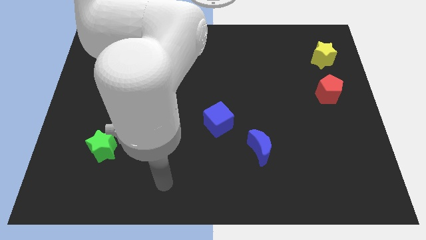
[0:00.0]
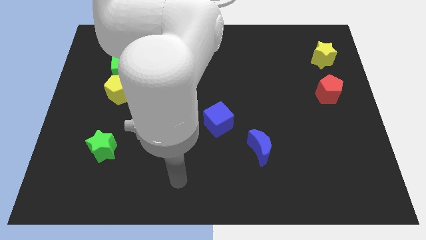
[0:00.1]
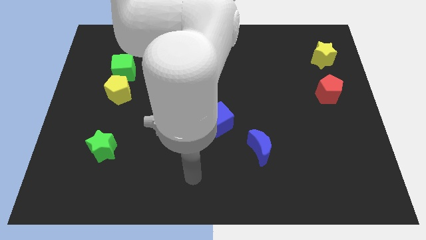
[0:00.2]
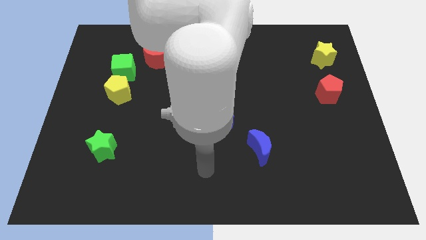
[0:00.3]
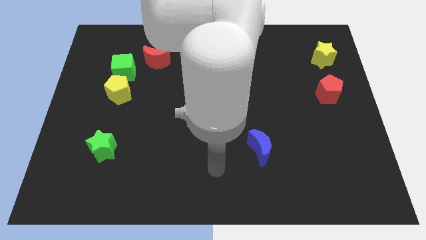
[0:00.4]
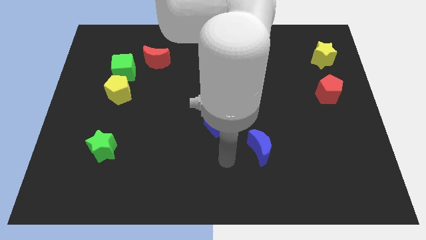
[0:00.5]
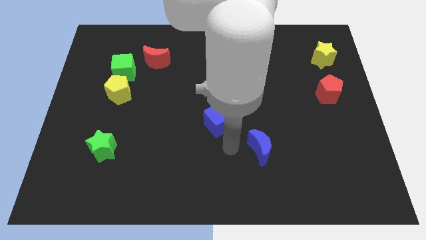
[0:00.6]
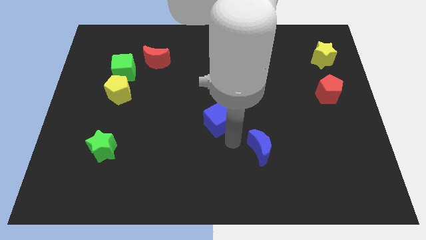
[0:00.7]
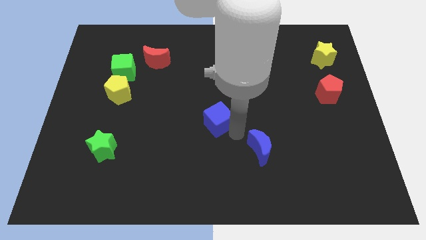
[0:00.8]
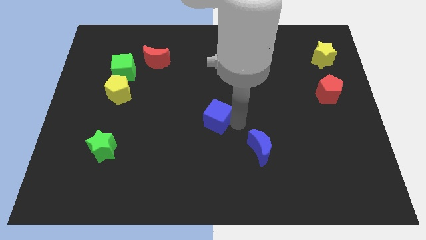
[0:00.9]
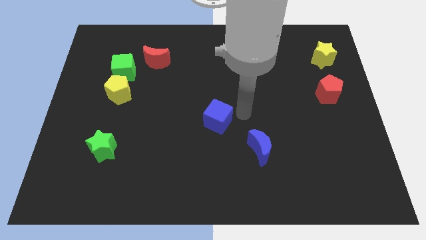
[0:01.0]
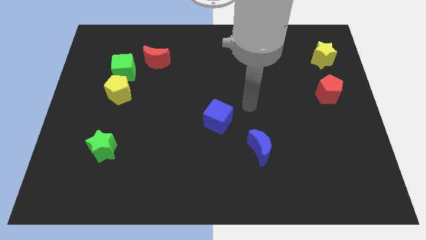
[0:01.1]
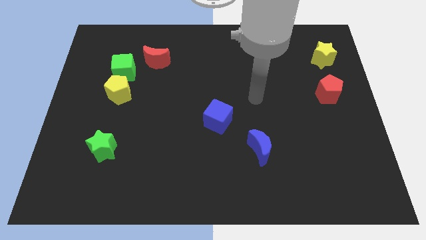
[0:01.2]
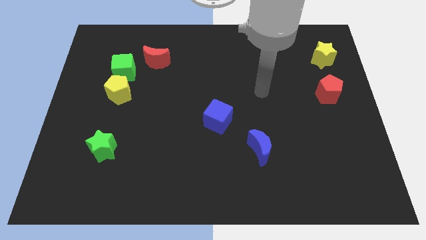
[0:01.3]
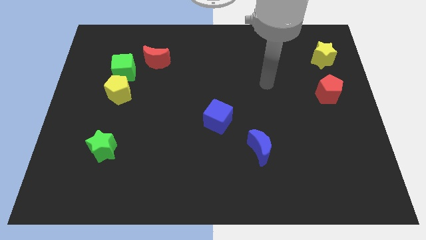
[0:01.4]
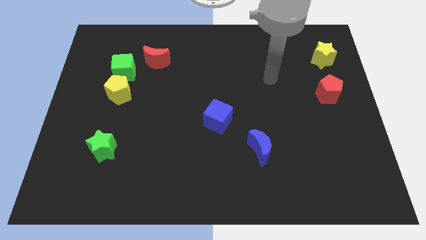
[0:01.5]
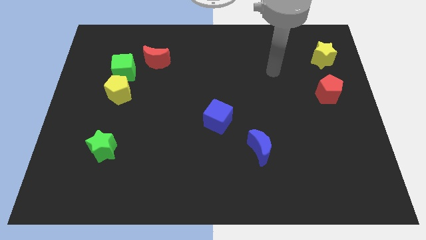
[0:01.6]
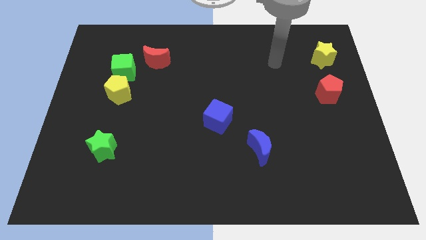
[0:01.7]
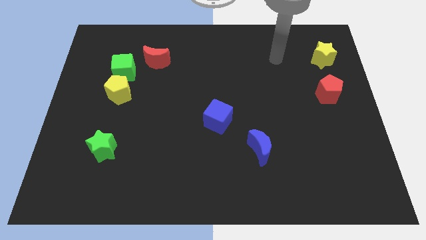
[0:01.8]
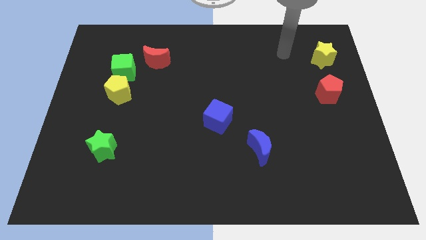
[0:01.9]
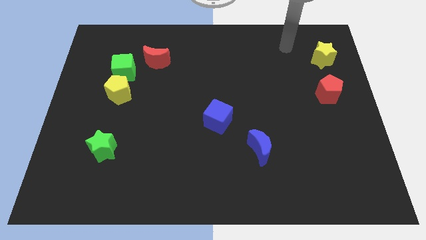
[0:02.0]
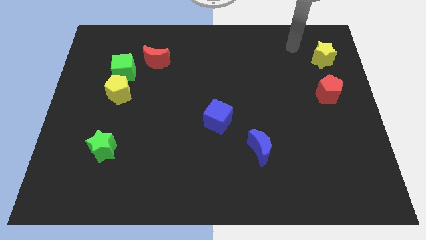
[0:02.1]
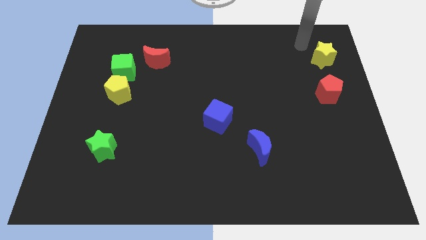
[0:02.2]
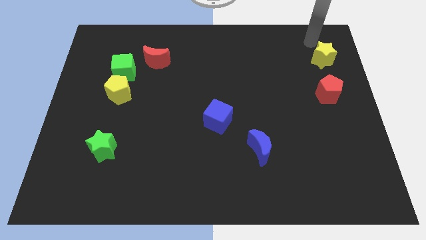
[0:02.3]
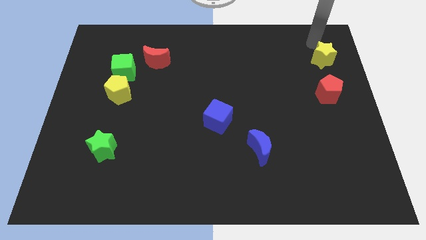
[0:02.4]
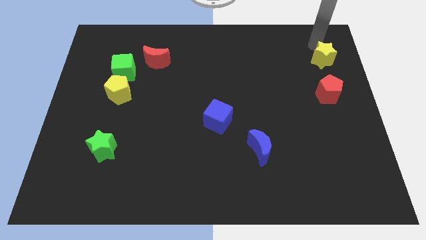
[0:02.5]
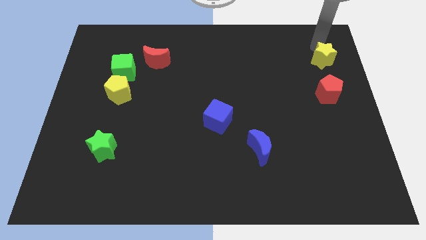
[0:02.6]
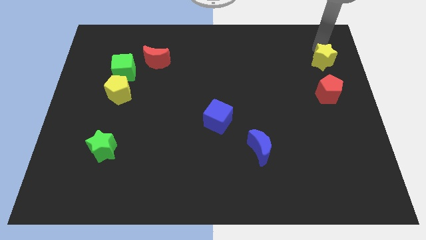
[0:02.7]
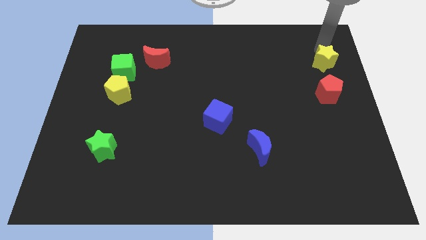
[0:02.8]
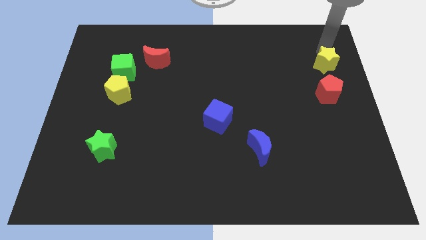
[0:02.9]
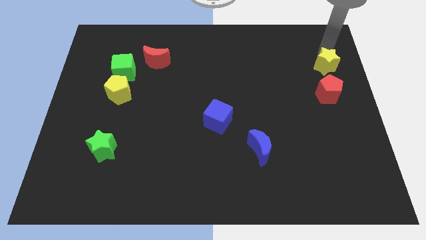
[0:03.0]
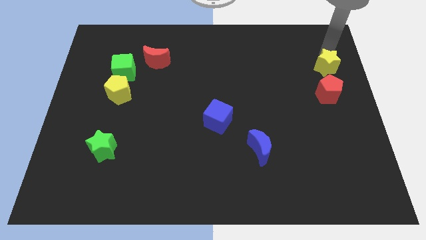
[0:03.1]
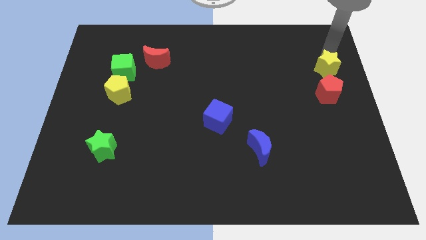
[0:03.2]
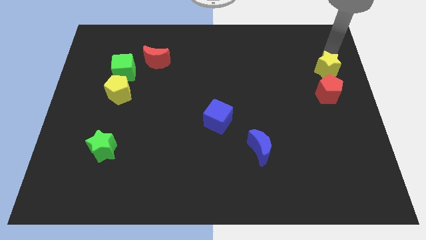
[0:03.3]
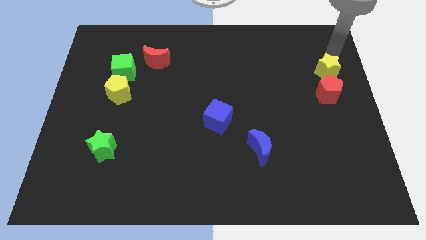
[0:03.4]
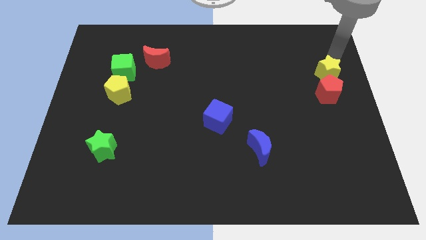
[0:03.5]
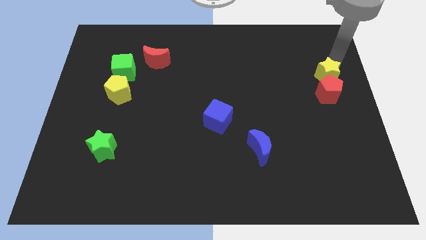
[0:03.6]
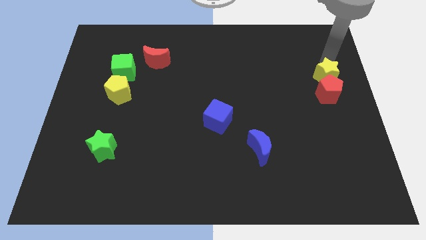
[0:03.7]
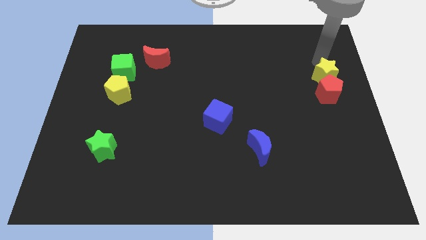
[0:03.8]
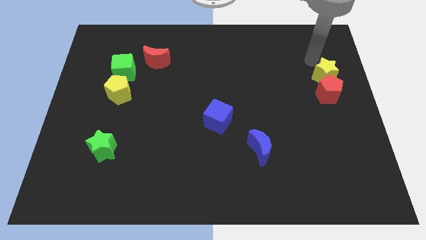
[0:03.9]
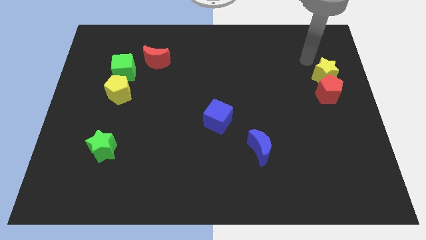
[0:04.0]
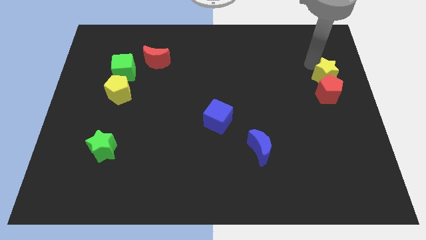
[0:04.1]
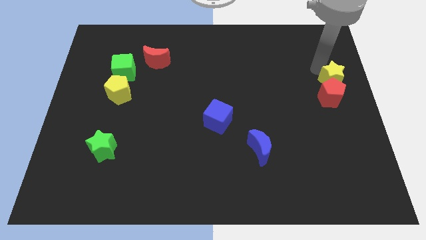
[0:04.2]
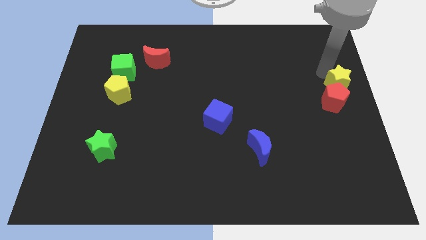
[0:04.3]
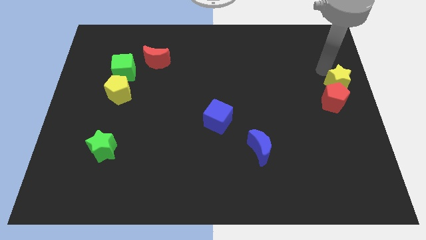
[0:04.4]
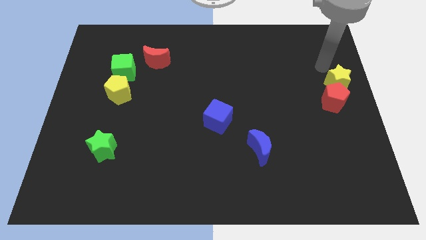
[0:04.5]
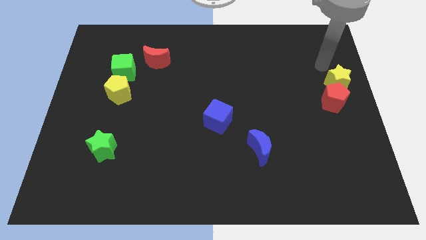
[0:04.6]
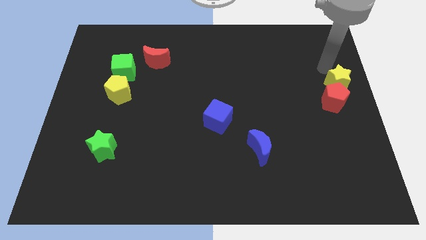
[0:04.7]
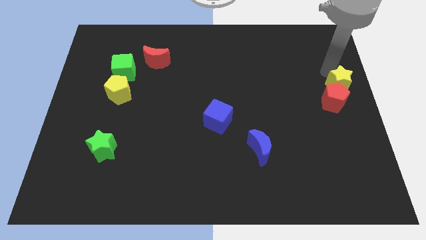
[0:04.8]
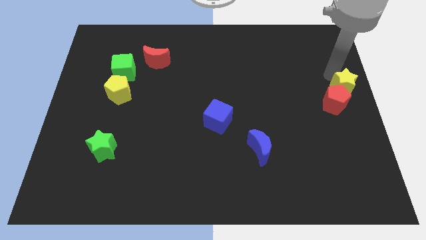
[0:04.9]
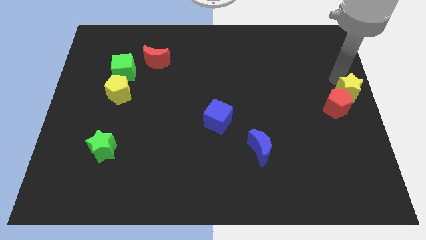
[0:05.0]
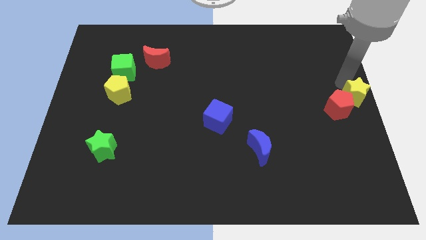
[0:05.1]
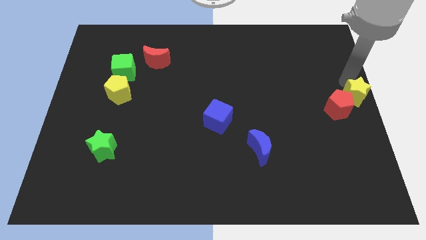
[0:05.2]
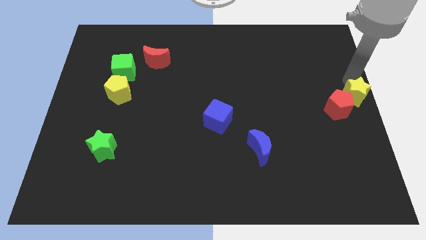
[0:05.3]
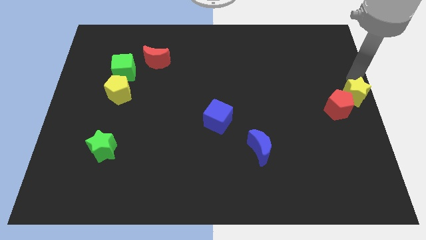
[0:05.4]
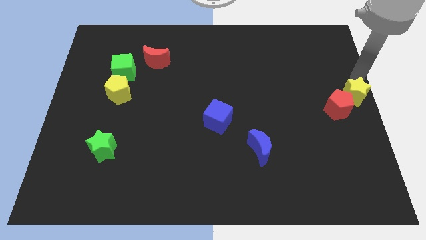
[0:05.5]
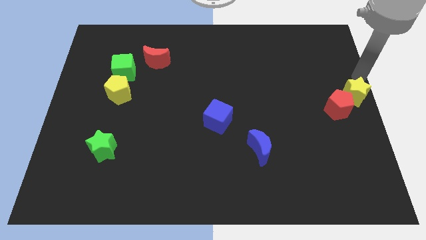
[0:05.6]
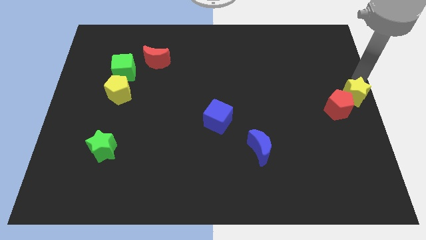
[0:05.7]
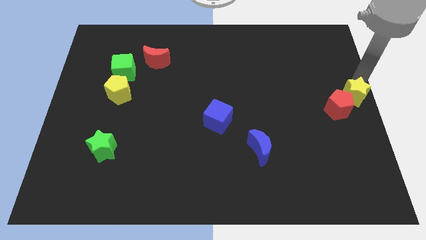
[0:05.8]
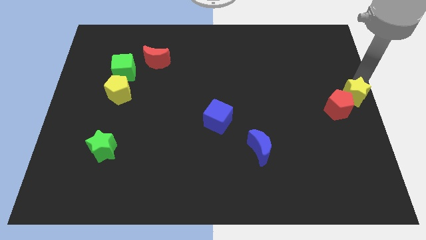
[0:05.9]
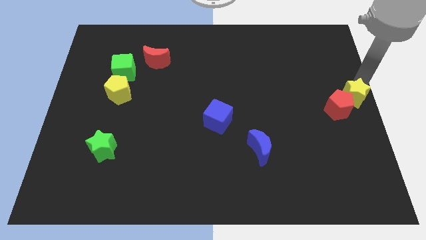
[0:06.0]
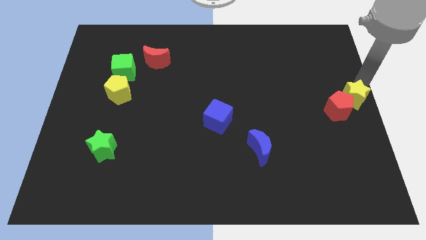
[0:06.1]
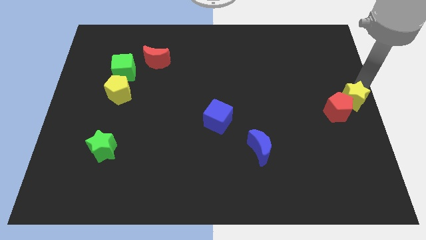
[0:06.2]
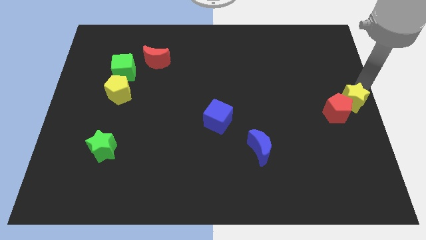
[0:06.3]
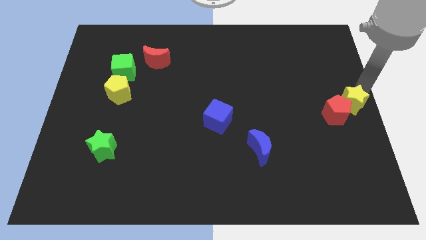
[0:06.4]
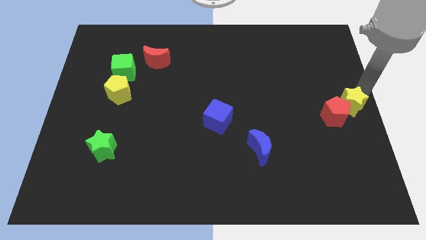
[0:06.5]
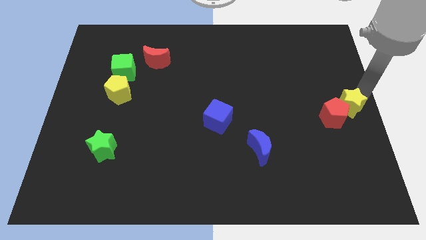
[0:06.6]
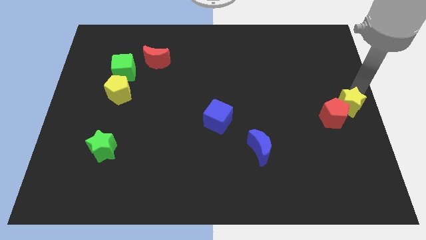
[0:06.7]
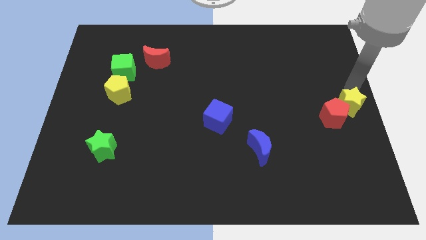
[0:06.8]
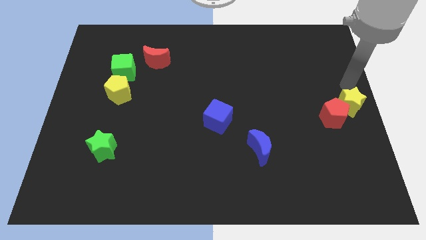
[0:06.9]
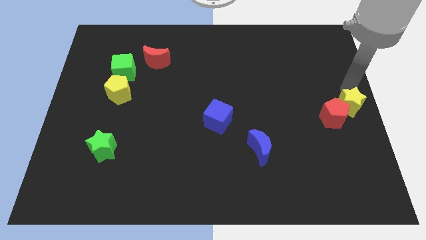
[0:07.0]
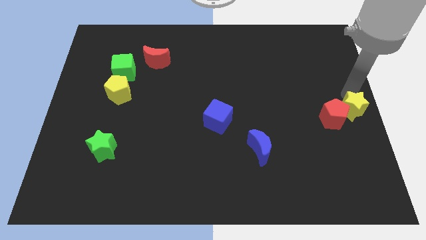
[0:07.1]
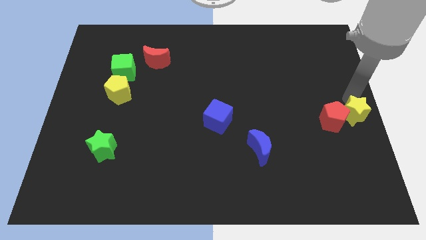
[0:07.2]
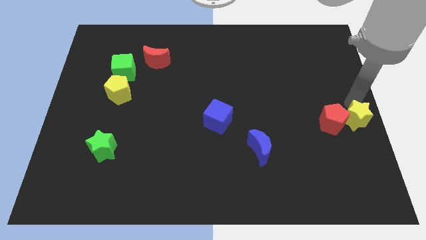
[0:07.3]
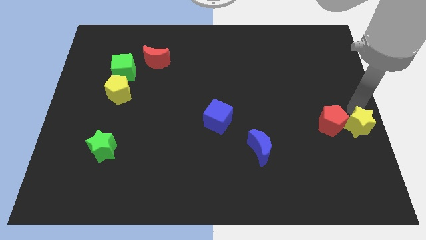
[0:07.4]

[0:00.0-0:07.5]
push the yellow star downwards

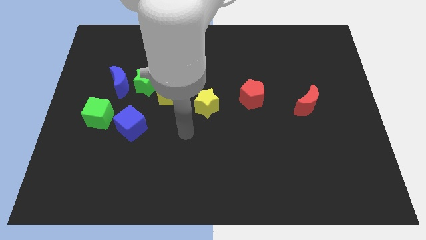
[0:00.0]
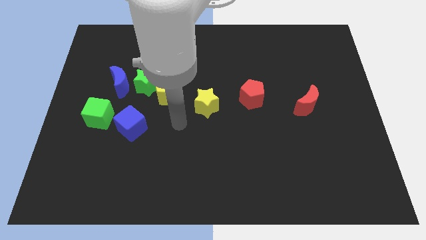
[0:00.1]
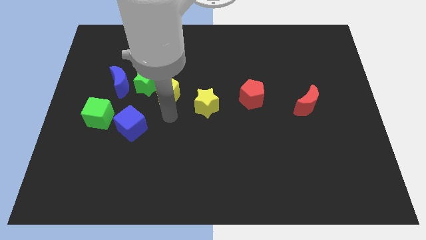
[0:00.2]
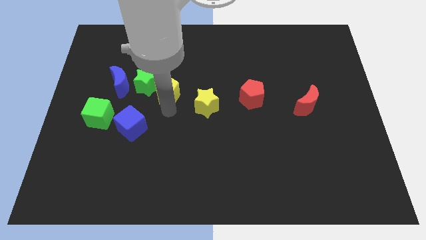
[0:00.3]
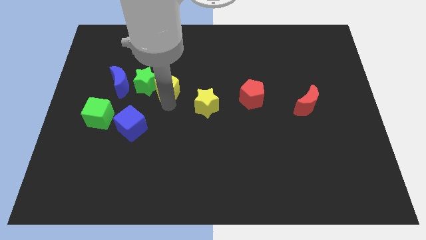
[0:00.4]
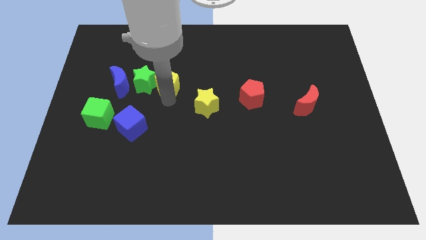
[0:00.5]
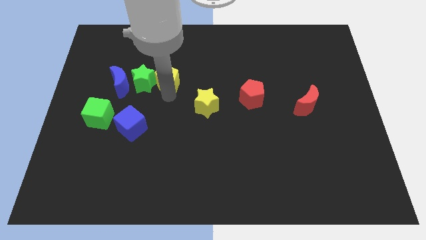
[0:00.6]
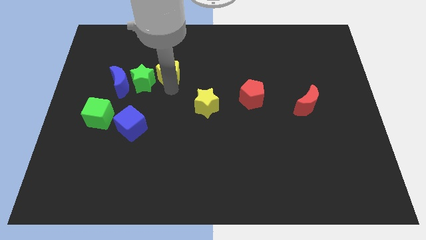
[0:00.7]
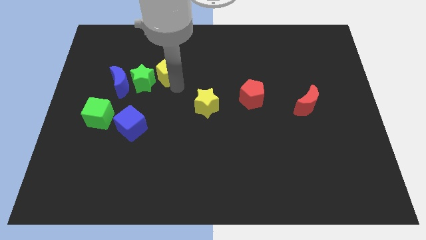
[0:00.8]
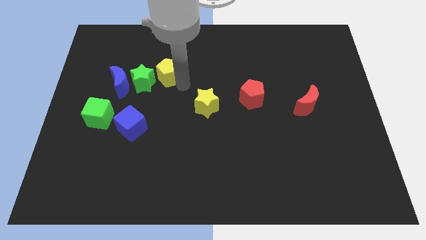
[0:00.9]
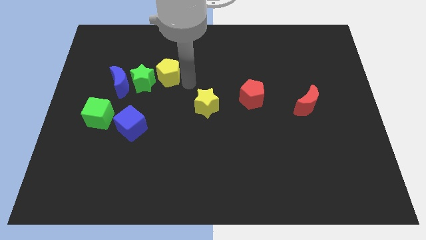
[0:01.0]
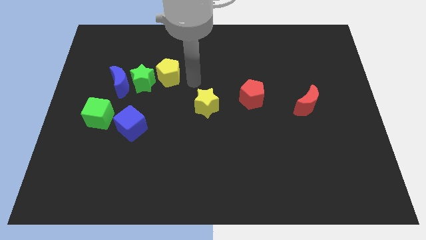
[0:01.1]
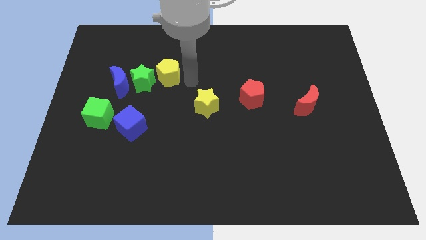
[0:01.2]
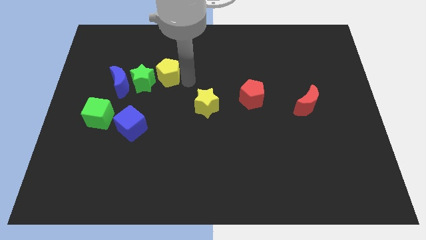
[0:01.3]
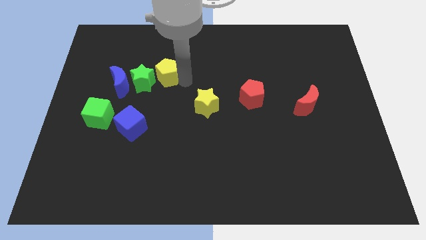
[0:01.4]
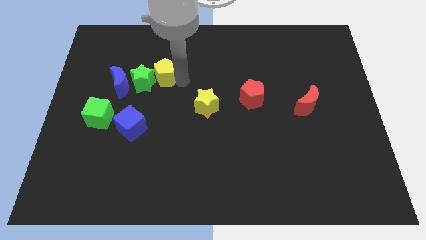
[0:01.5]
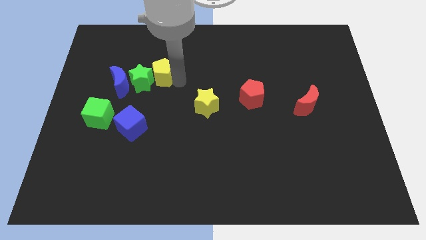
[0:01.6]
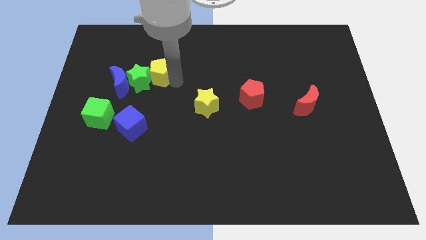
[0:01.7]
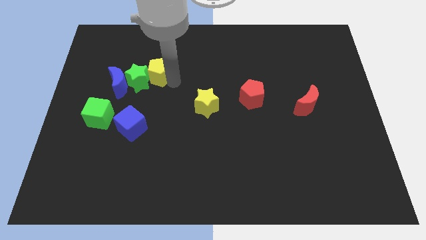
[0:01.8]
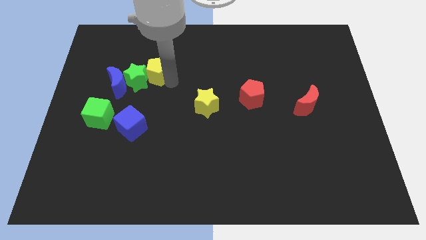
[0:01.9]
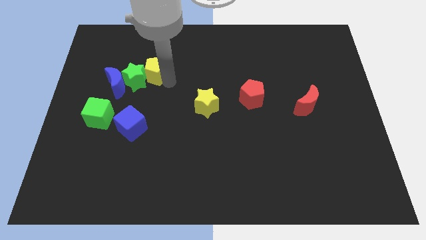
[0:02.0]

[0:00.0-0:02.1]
push the yellow pentagon upwards and to the left diagonally slightly
